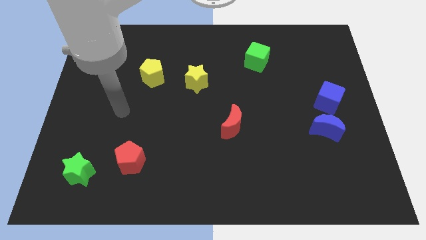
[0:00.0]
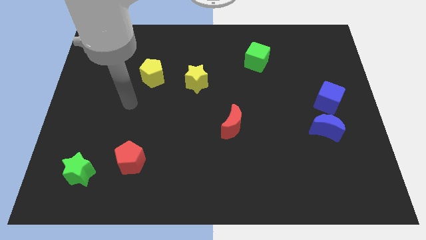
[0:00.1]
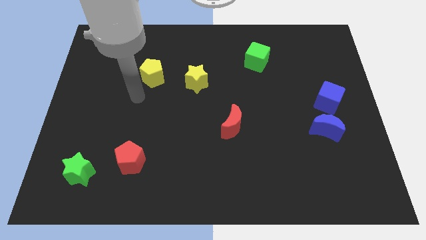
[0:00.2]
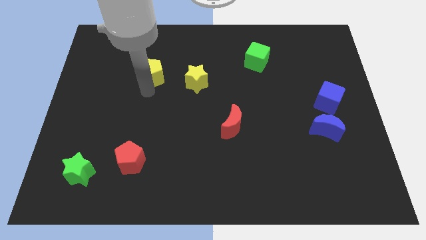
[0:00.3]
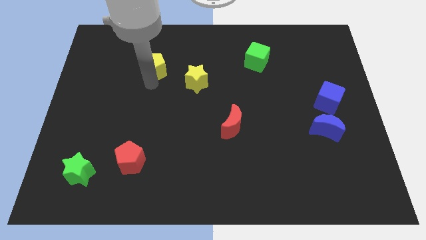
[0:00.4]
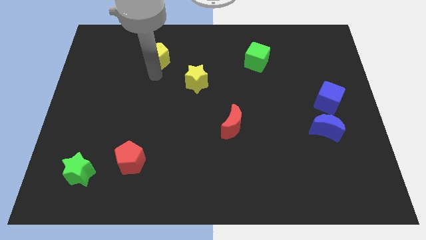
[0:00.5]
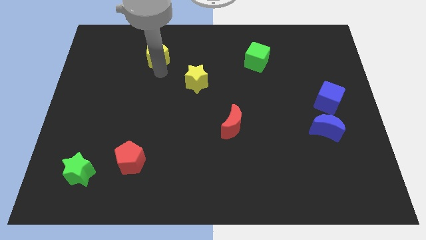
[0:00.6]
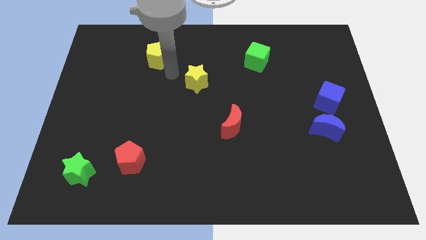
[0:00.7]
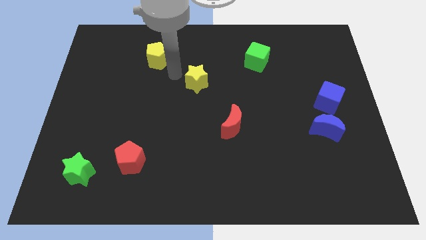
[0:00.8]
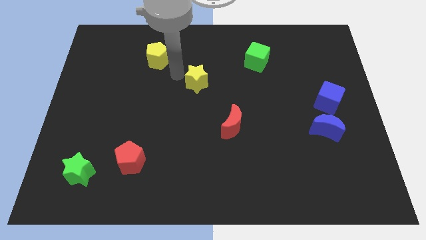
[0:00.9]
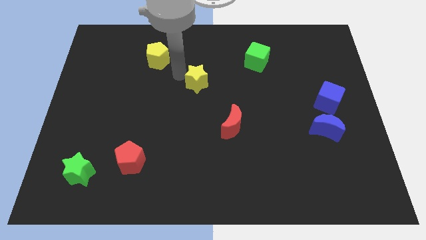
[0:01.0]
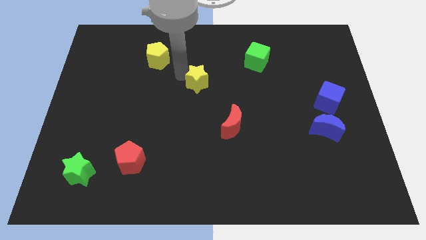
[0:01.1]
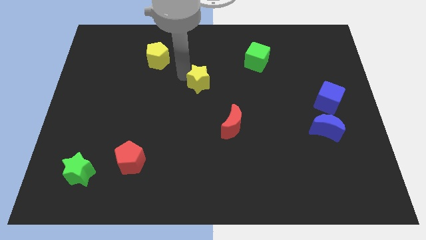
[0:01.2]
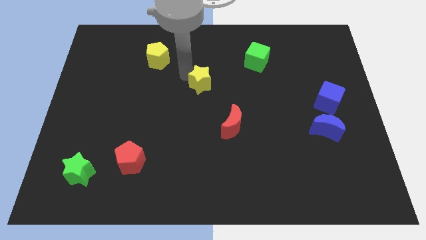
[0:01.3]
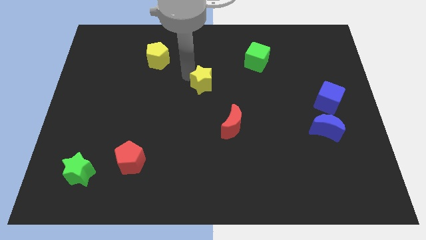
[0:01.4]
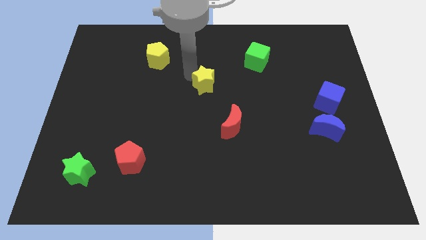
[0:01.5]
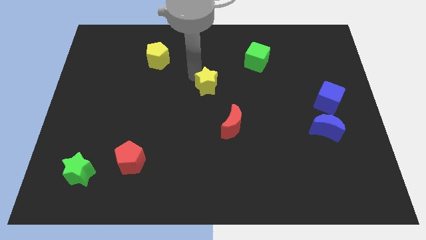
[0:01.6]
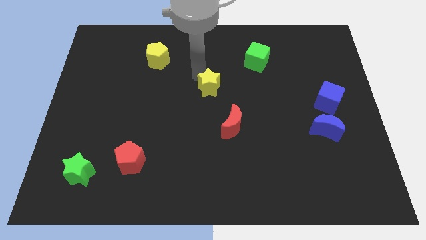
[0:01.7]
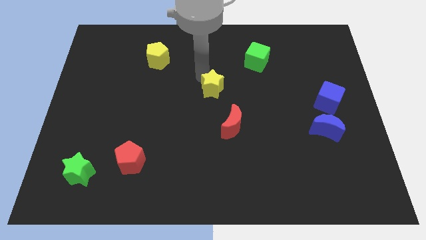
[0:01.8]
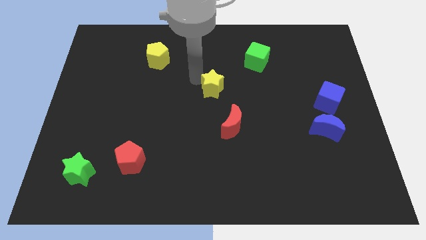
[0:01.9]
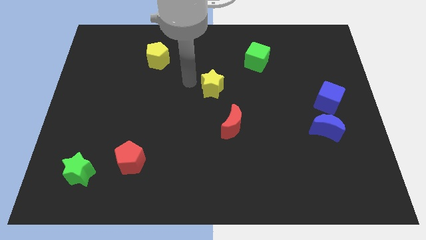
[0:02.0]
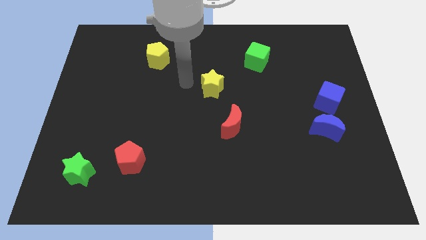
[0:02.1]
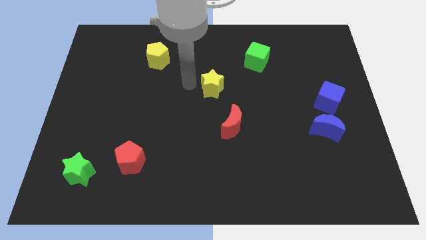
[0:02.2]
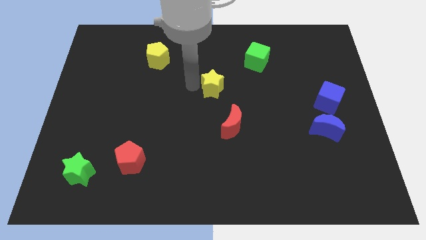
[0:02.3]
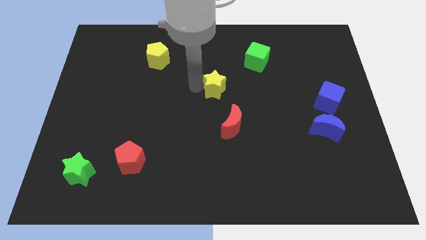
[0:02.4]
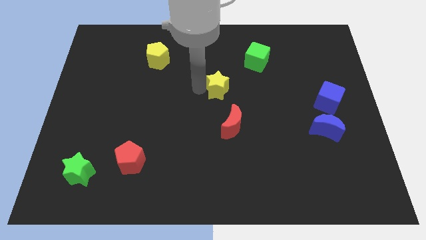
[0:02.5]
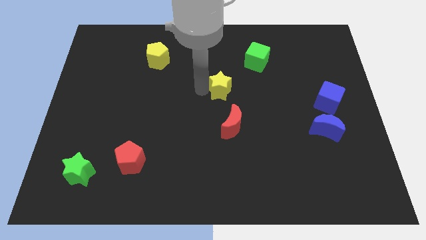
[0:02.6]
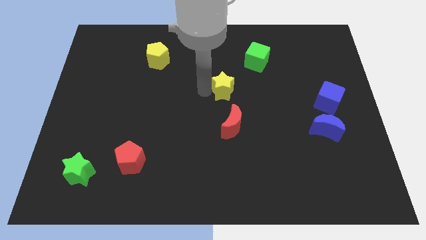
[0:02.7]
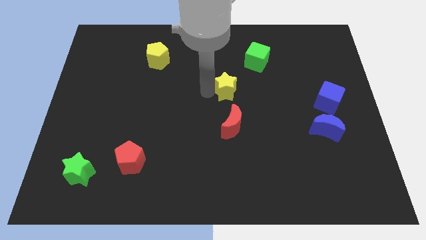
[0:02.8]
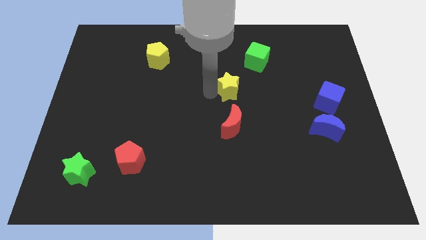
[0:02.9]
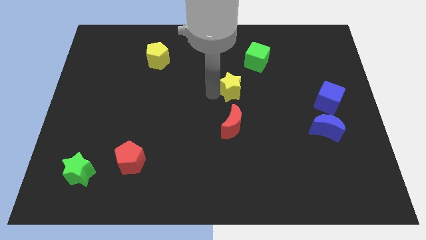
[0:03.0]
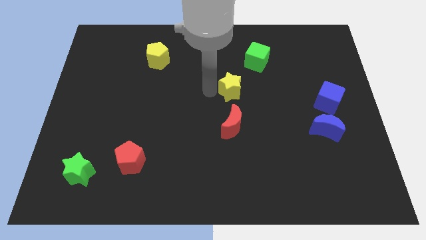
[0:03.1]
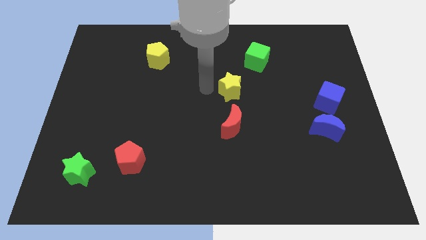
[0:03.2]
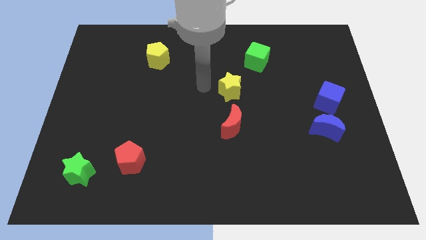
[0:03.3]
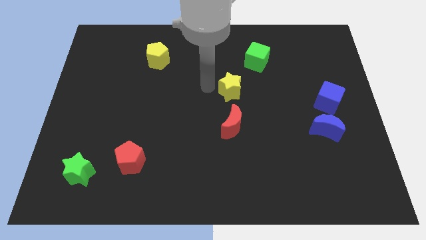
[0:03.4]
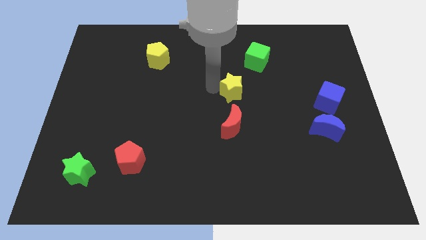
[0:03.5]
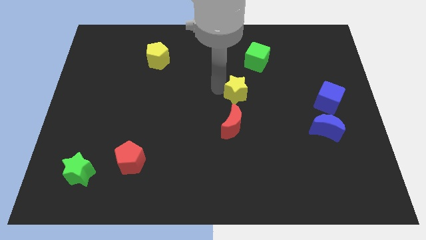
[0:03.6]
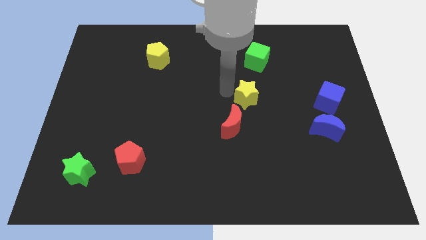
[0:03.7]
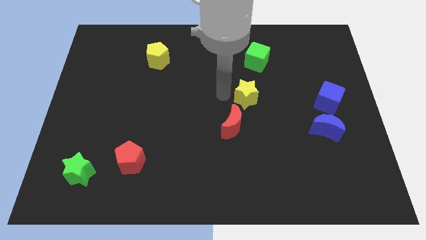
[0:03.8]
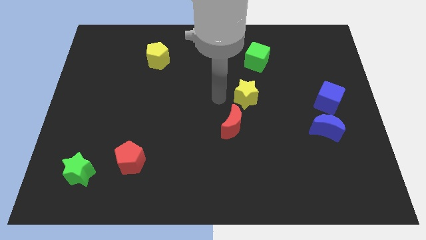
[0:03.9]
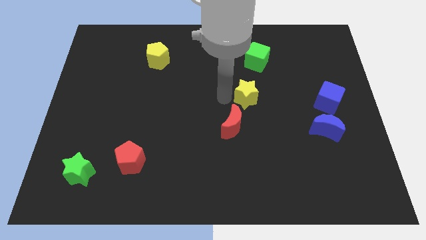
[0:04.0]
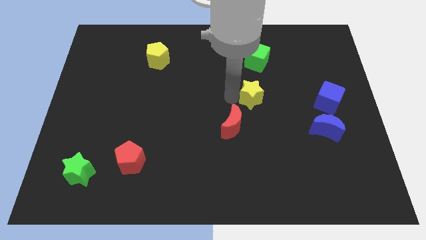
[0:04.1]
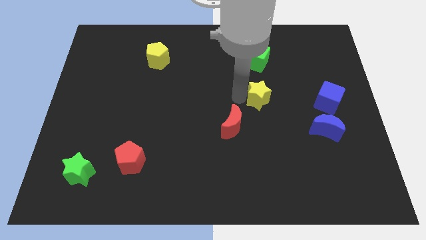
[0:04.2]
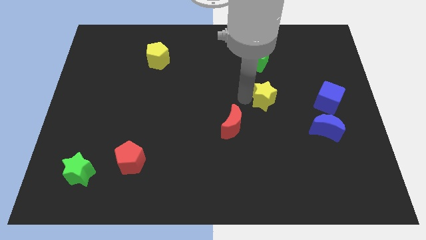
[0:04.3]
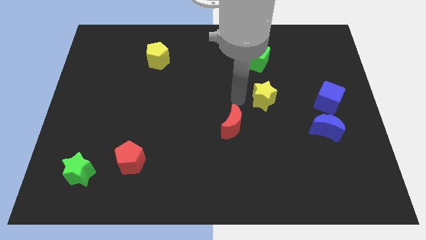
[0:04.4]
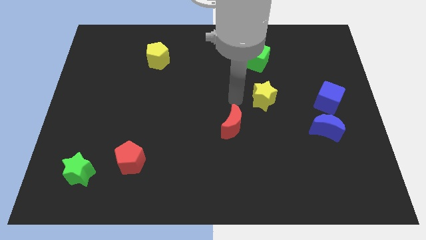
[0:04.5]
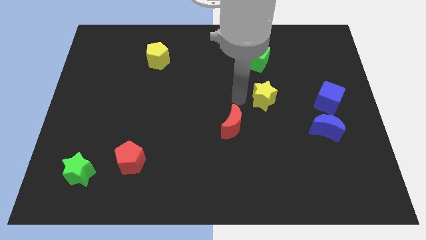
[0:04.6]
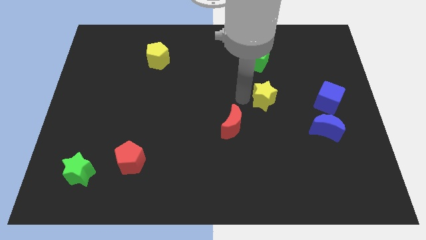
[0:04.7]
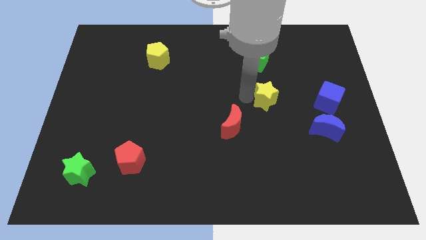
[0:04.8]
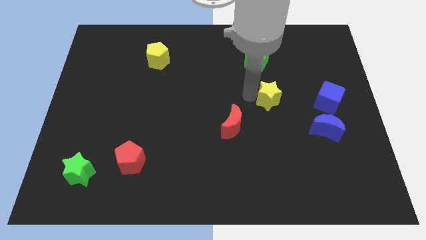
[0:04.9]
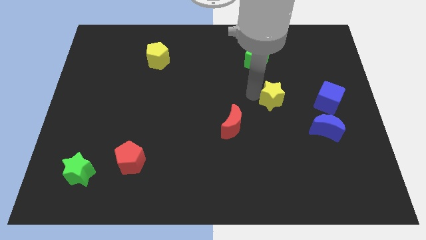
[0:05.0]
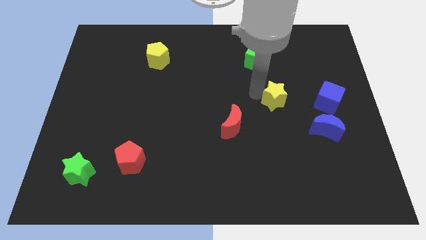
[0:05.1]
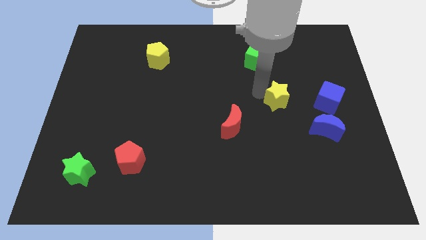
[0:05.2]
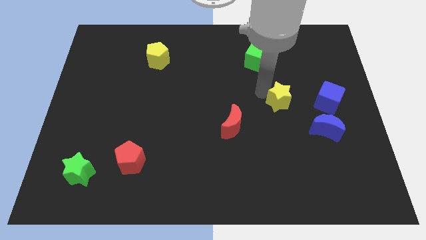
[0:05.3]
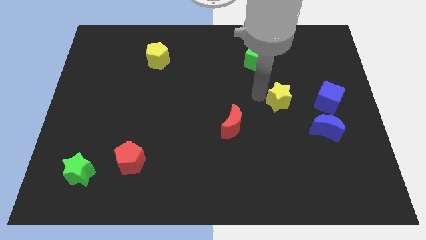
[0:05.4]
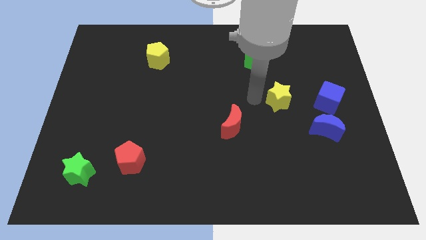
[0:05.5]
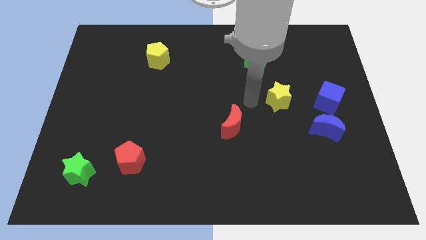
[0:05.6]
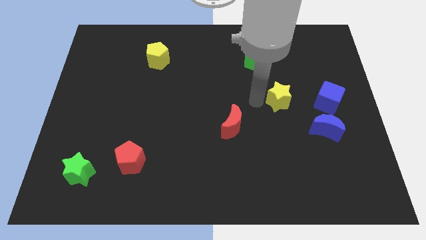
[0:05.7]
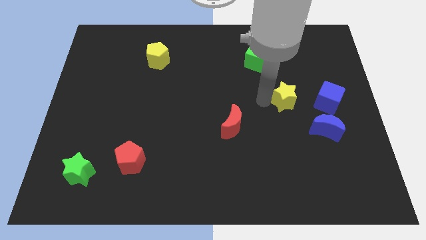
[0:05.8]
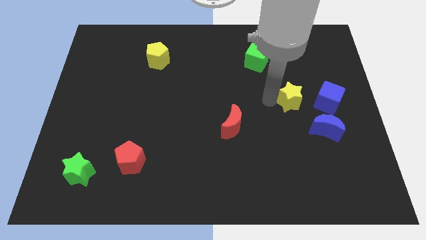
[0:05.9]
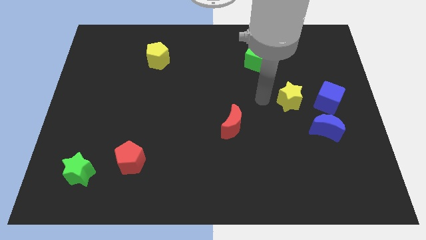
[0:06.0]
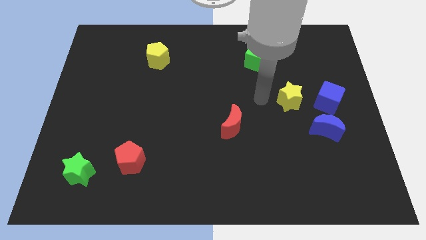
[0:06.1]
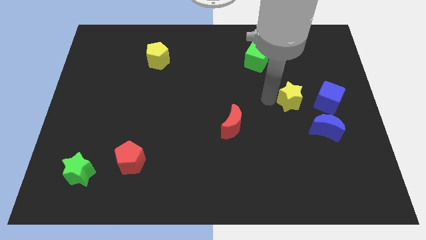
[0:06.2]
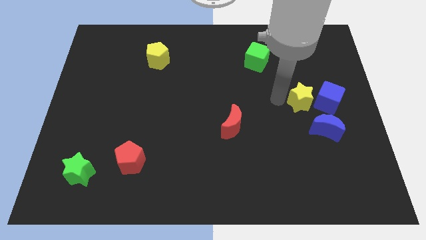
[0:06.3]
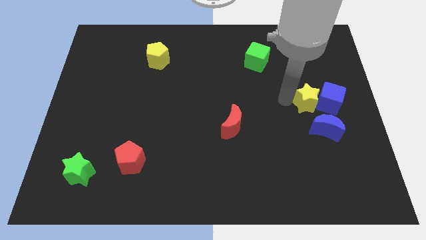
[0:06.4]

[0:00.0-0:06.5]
put the yellow star close to the blue cube

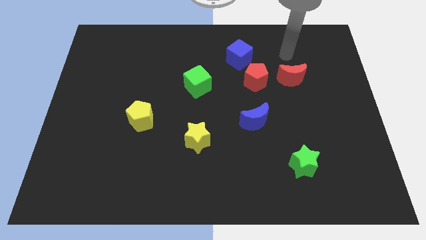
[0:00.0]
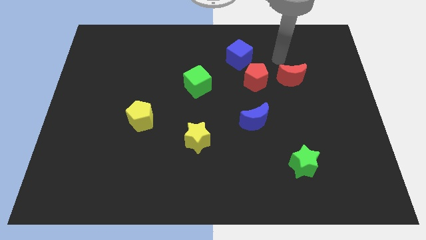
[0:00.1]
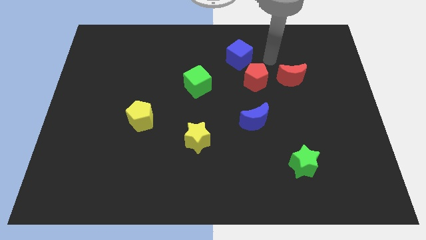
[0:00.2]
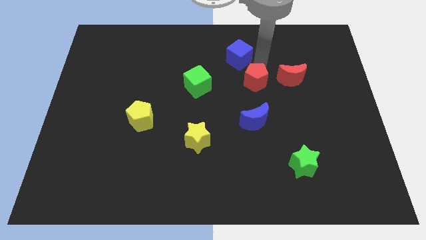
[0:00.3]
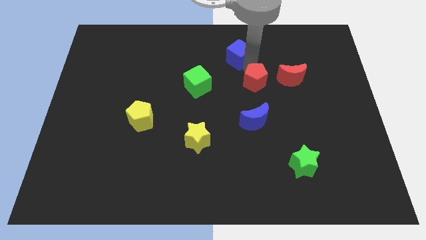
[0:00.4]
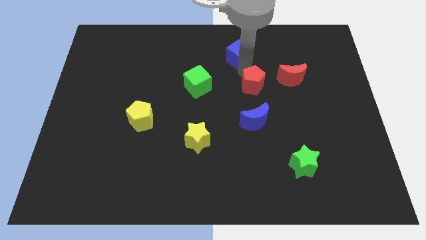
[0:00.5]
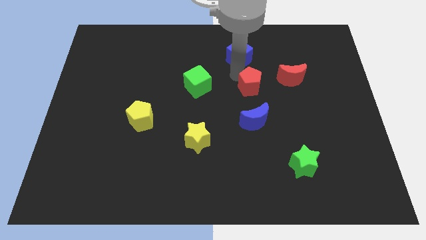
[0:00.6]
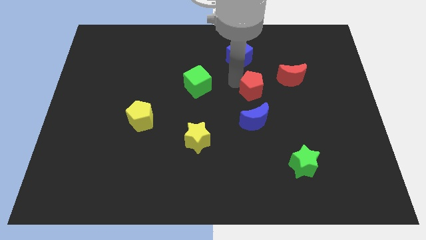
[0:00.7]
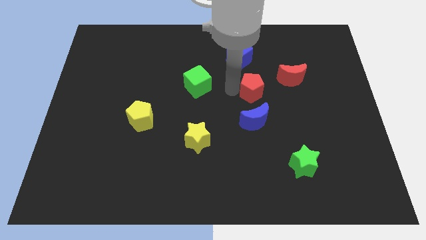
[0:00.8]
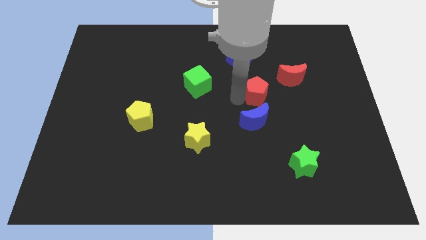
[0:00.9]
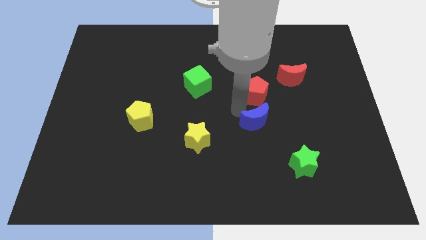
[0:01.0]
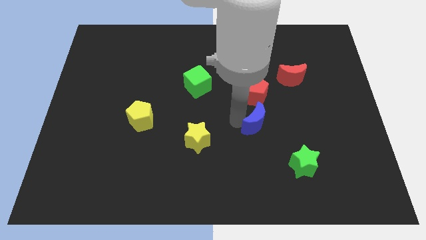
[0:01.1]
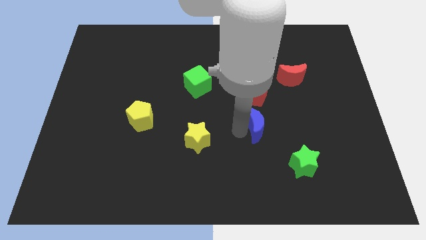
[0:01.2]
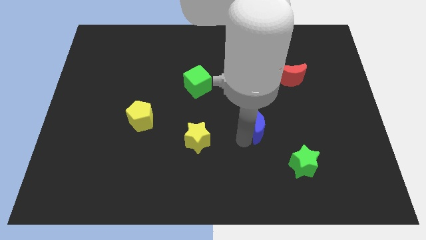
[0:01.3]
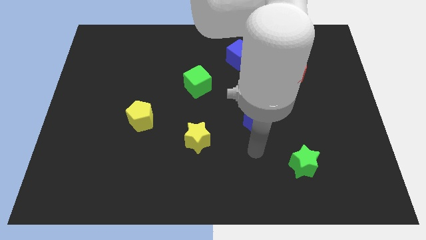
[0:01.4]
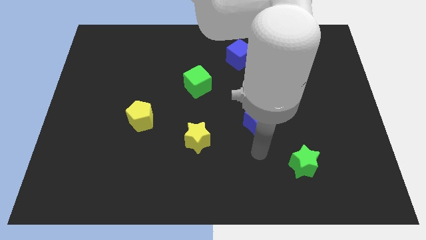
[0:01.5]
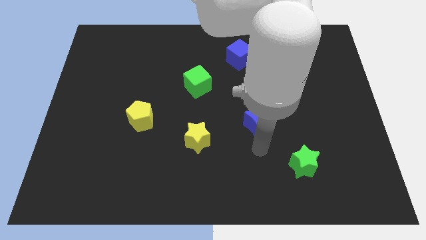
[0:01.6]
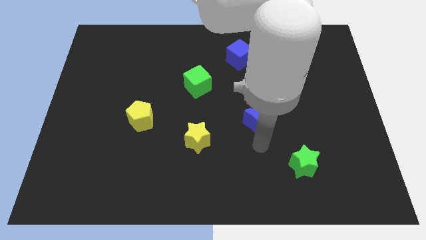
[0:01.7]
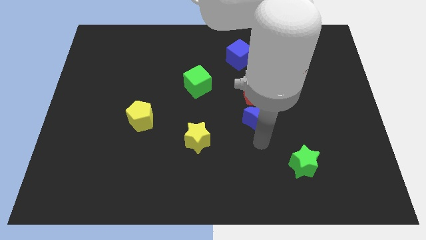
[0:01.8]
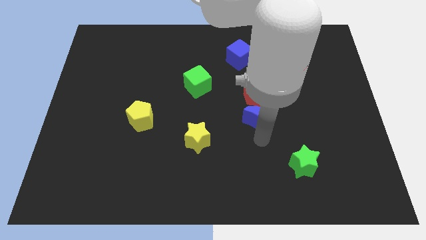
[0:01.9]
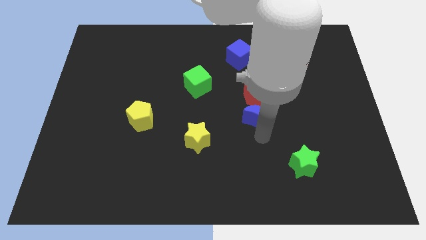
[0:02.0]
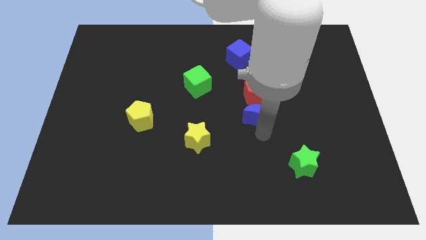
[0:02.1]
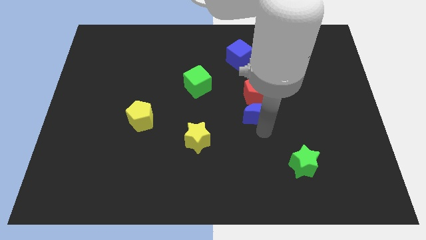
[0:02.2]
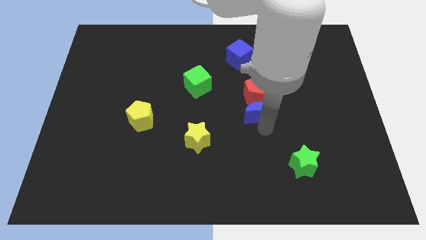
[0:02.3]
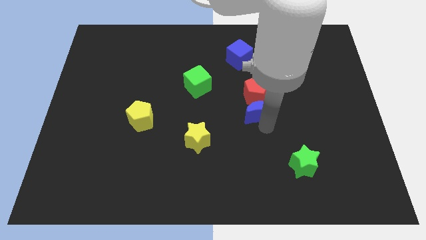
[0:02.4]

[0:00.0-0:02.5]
push the blue moon to the red pentagon
